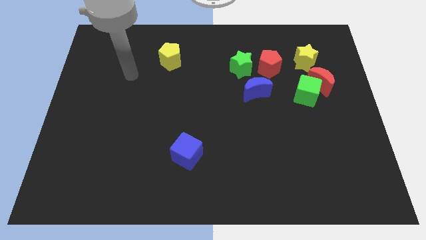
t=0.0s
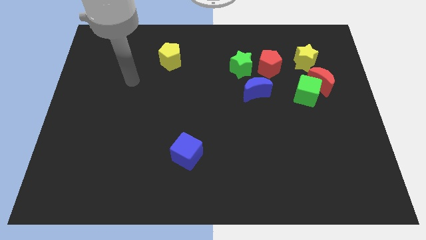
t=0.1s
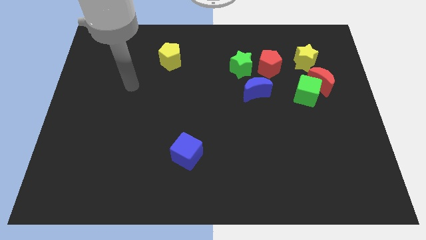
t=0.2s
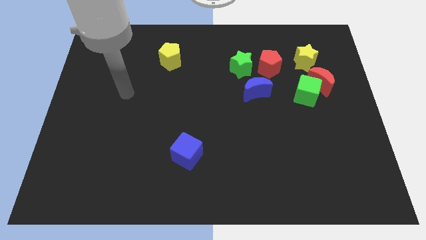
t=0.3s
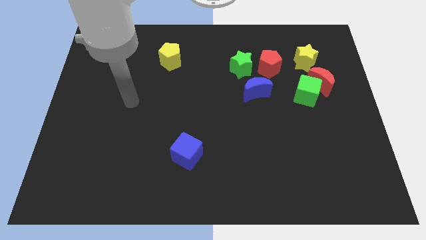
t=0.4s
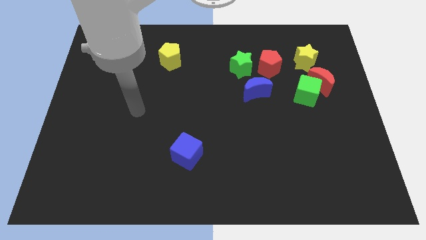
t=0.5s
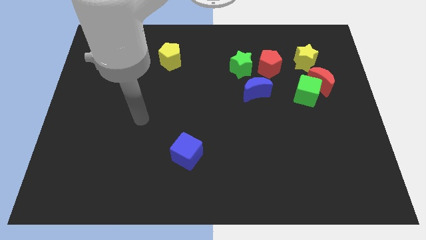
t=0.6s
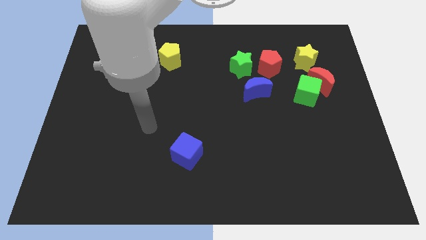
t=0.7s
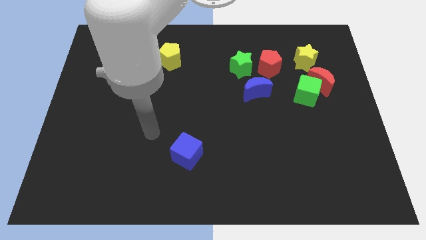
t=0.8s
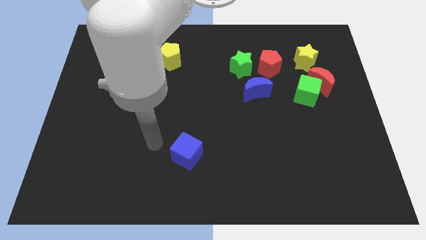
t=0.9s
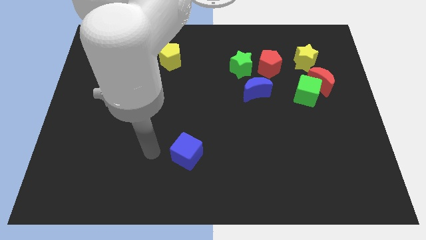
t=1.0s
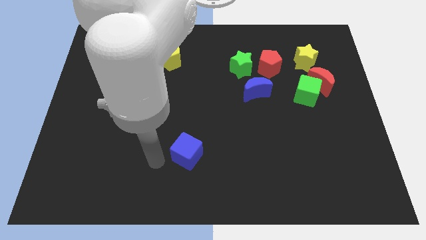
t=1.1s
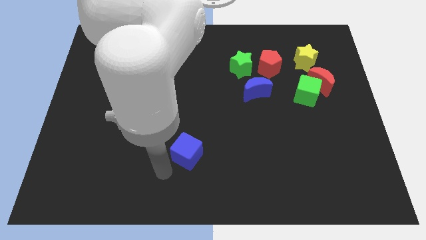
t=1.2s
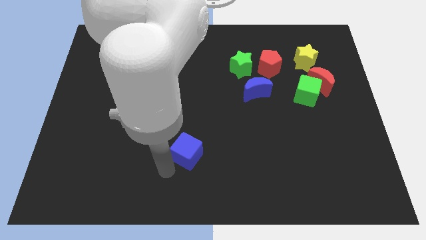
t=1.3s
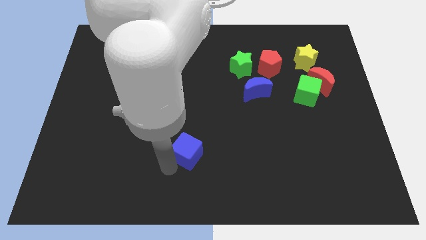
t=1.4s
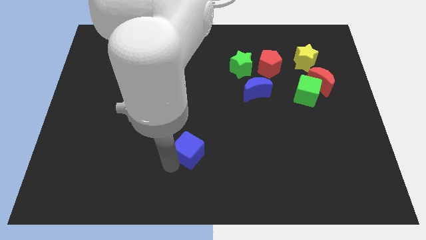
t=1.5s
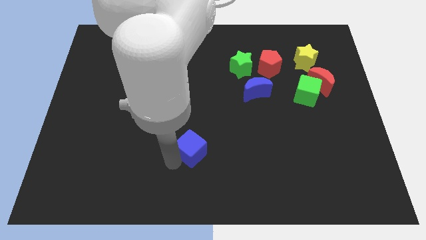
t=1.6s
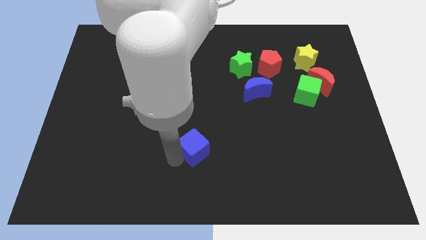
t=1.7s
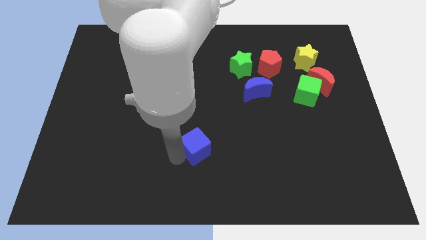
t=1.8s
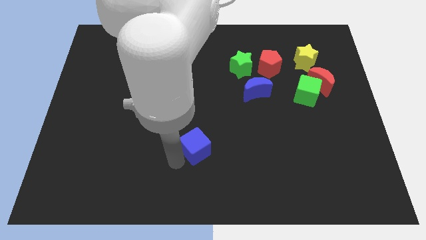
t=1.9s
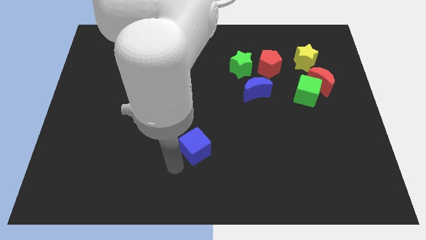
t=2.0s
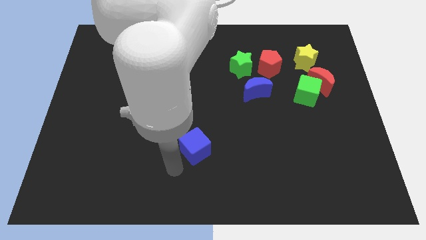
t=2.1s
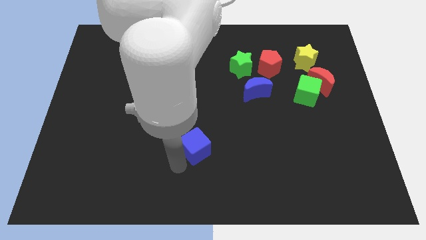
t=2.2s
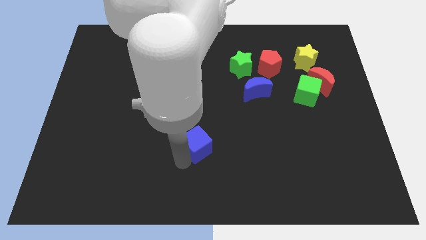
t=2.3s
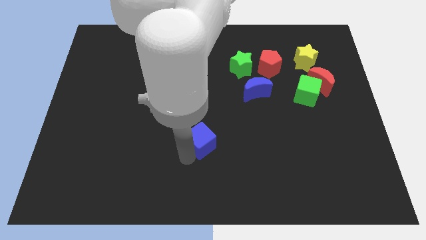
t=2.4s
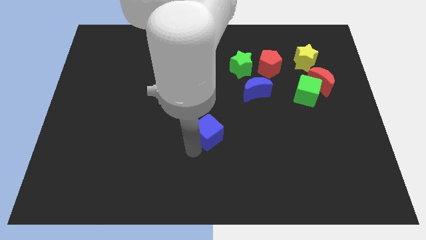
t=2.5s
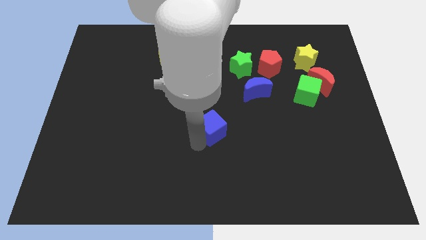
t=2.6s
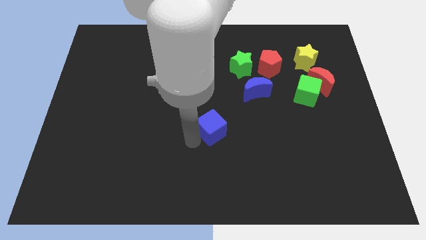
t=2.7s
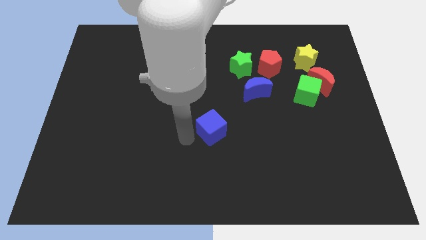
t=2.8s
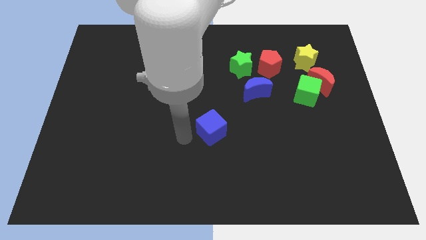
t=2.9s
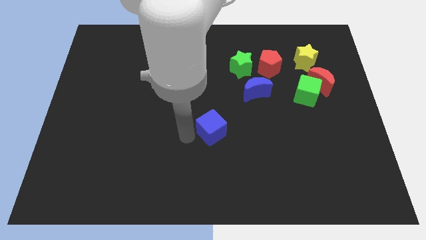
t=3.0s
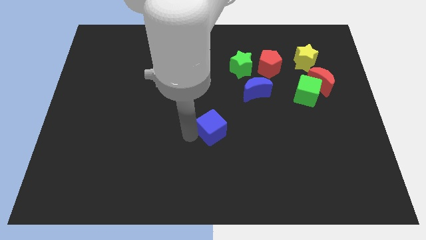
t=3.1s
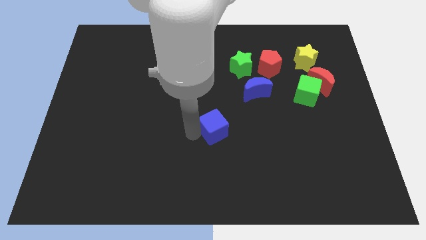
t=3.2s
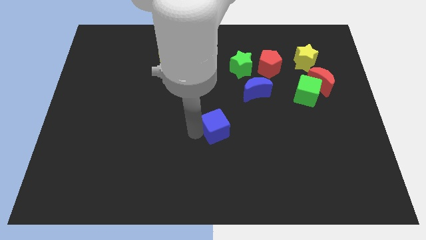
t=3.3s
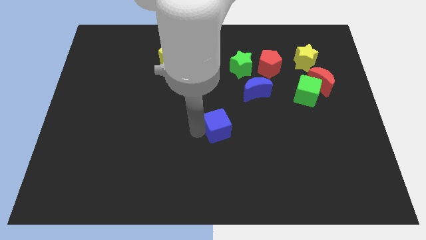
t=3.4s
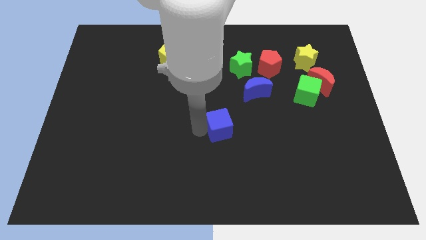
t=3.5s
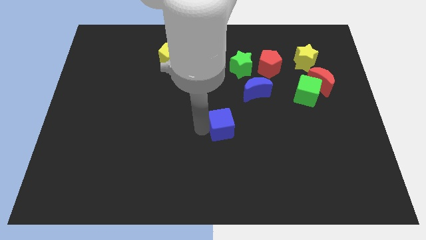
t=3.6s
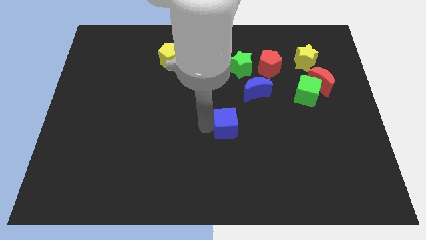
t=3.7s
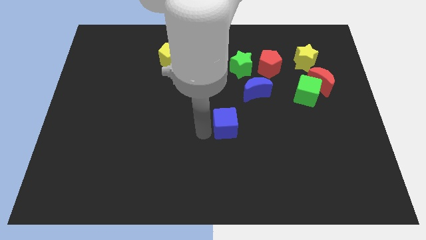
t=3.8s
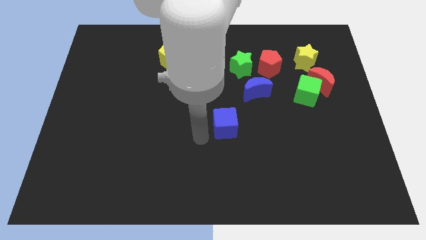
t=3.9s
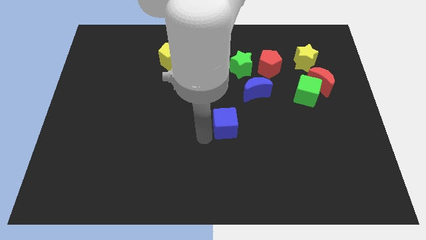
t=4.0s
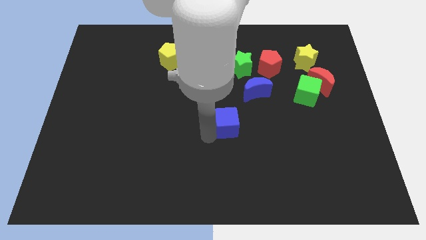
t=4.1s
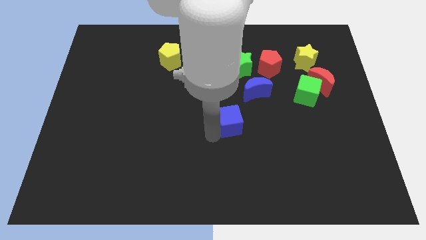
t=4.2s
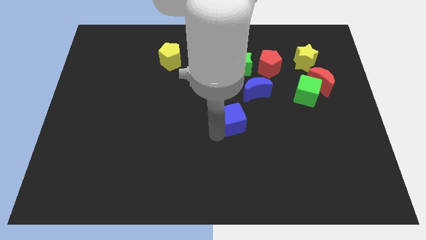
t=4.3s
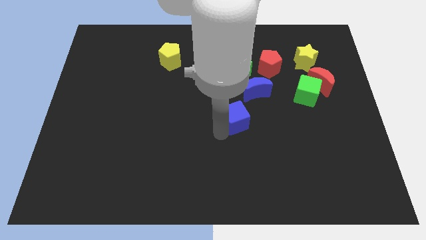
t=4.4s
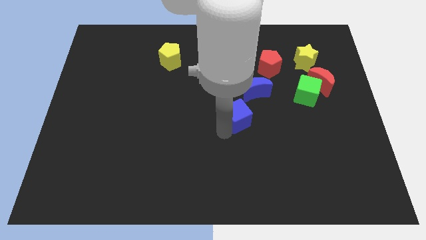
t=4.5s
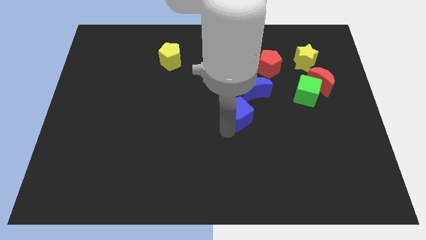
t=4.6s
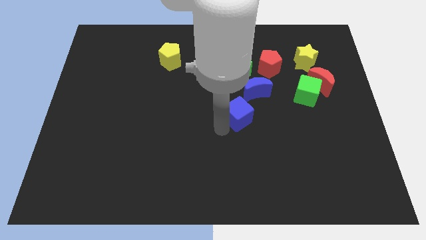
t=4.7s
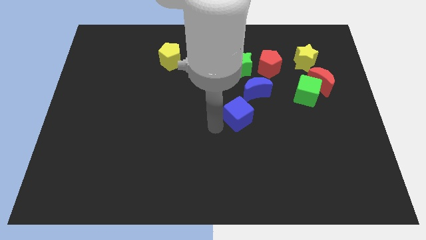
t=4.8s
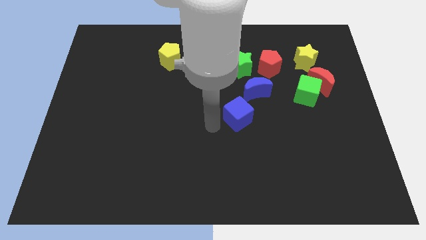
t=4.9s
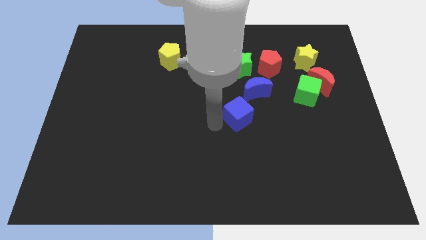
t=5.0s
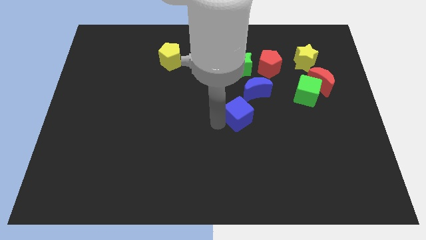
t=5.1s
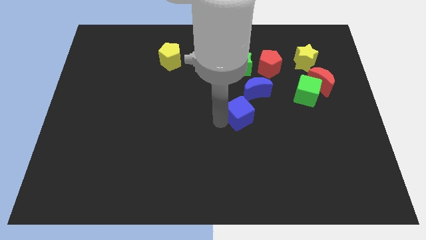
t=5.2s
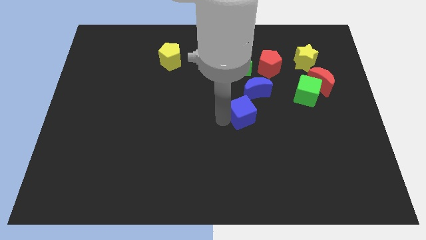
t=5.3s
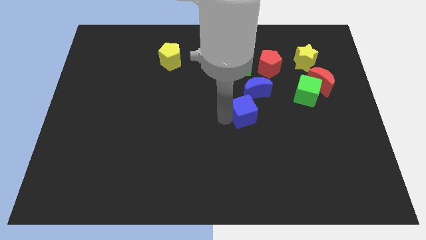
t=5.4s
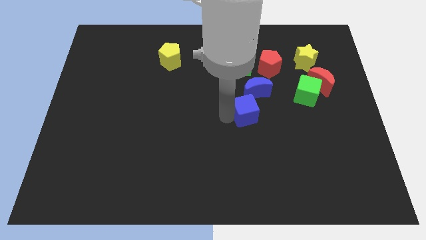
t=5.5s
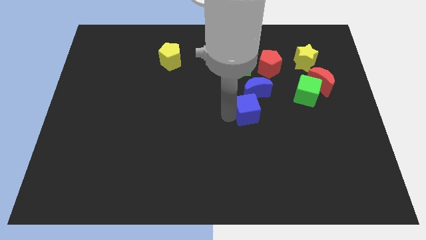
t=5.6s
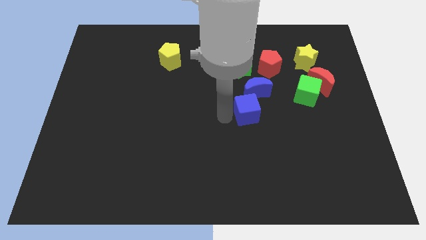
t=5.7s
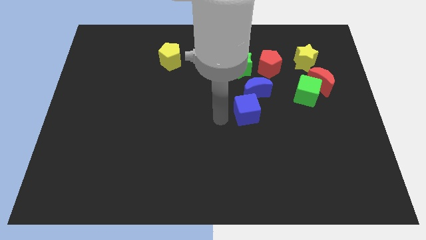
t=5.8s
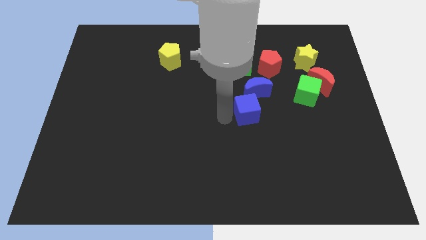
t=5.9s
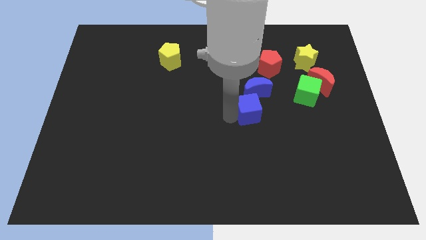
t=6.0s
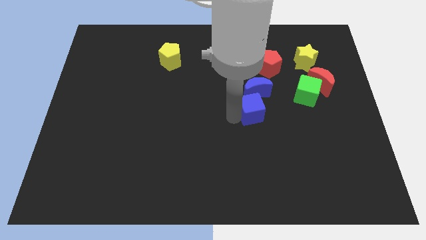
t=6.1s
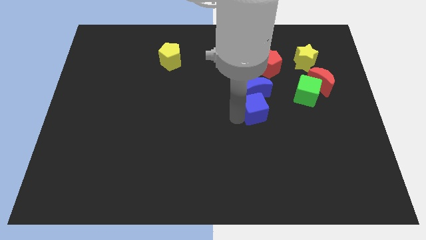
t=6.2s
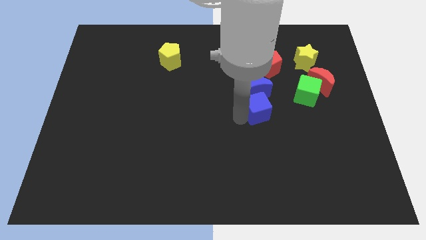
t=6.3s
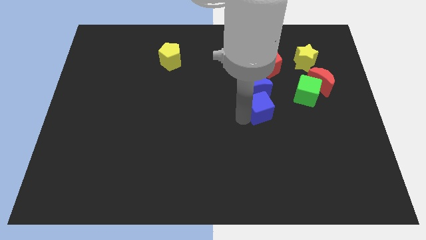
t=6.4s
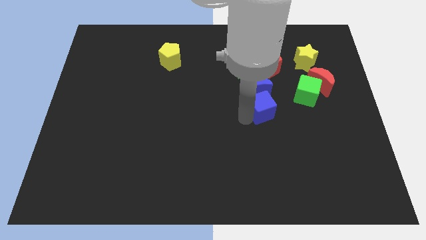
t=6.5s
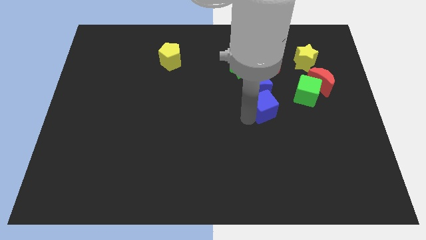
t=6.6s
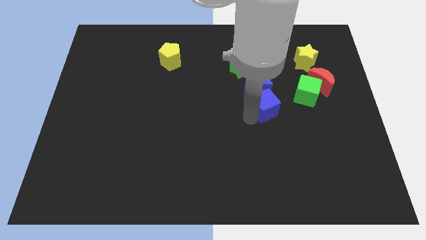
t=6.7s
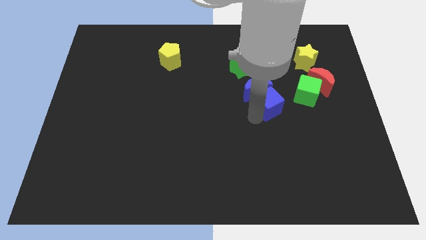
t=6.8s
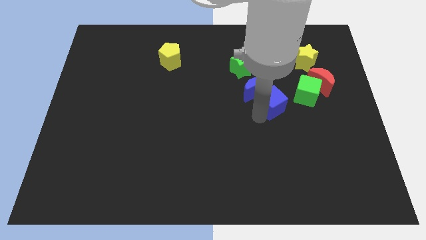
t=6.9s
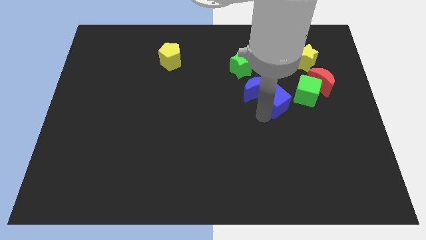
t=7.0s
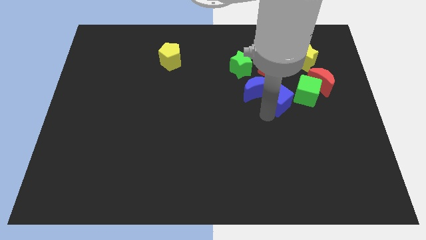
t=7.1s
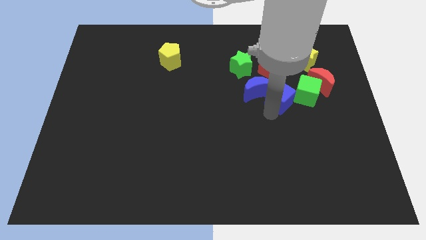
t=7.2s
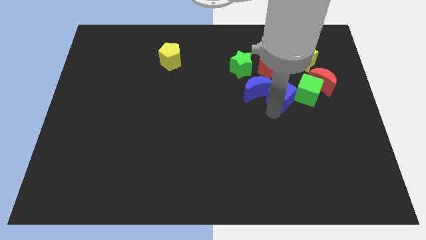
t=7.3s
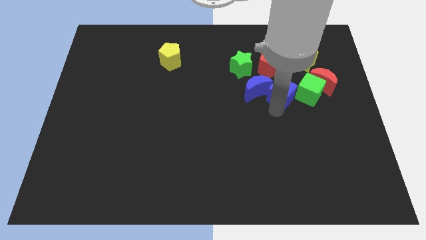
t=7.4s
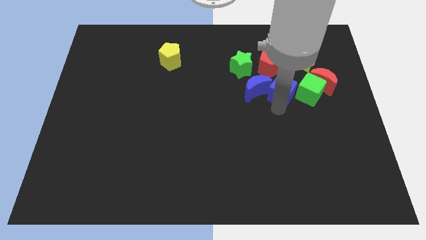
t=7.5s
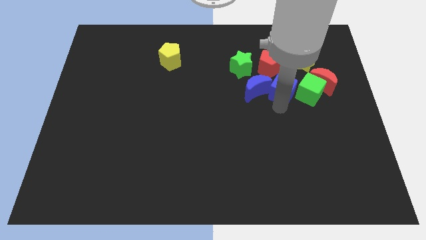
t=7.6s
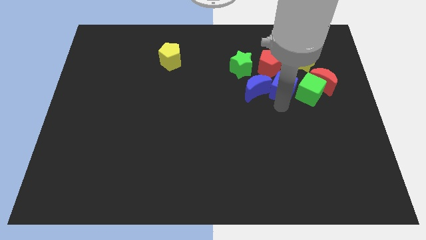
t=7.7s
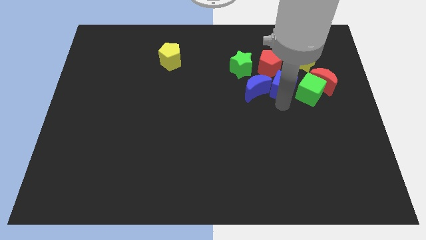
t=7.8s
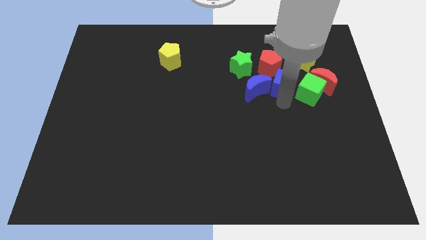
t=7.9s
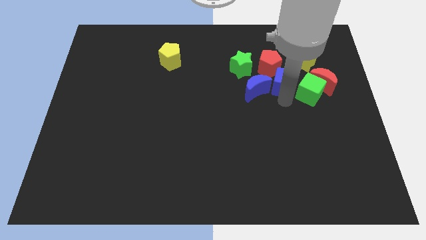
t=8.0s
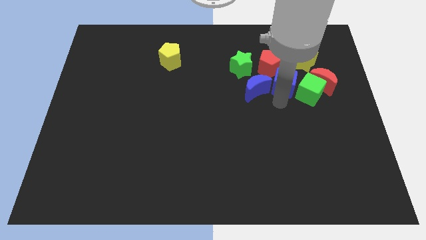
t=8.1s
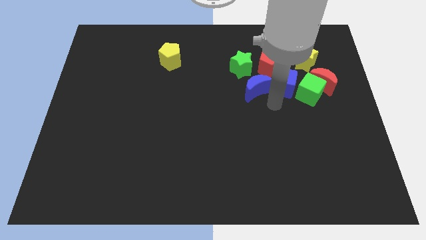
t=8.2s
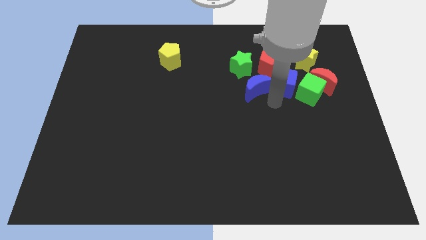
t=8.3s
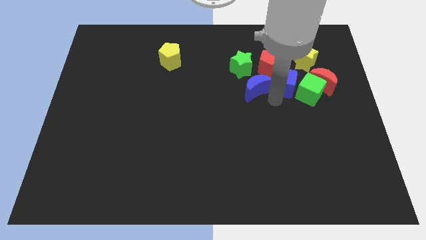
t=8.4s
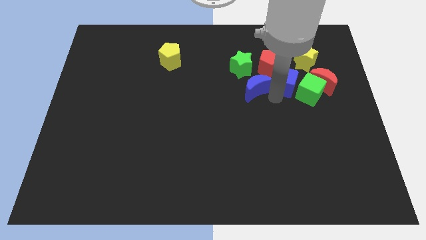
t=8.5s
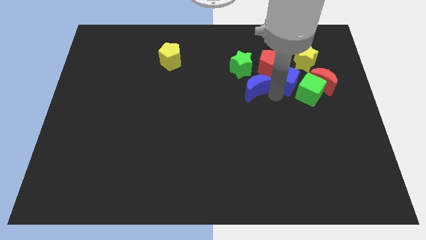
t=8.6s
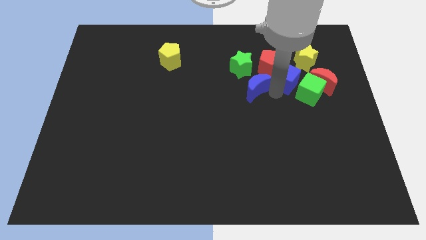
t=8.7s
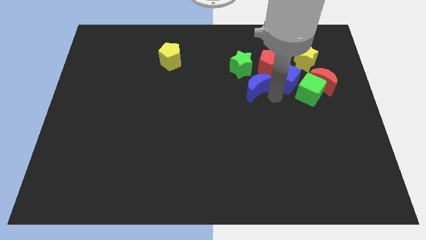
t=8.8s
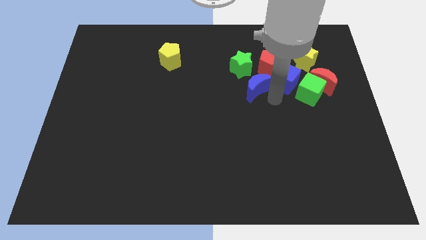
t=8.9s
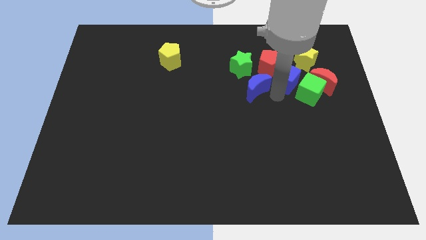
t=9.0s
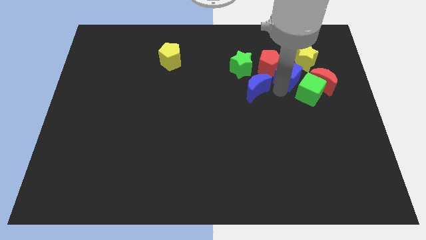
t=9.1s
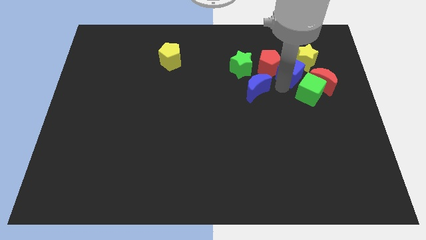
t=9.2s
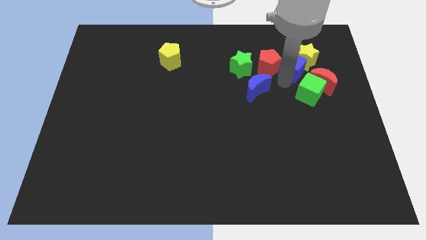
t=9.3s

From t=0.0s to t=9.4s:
put the blue cube close to the yellow star
